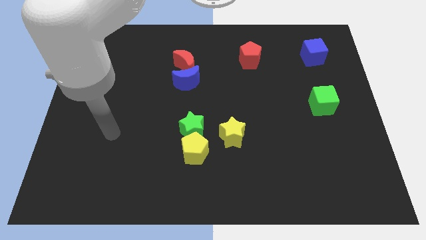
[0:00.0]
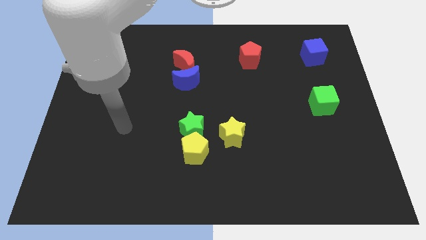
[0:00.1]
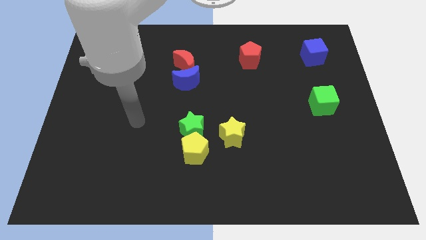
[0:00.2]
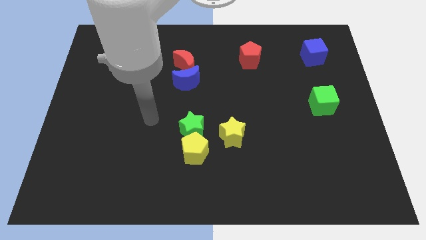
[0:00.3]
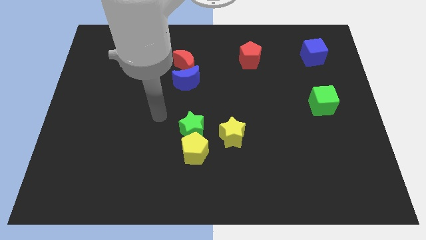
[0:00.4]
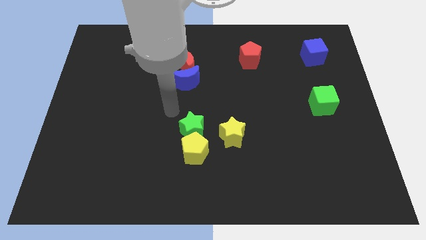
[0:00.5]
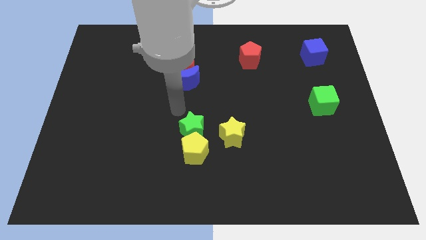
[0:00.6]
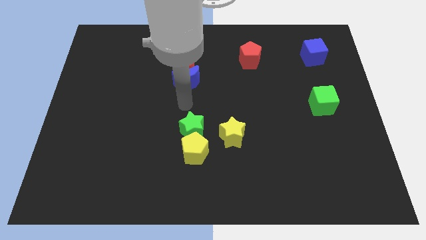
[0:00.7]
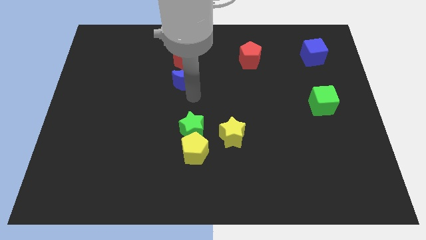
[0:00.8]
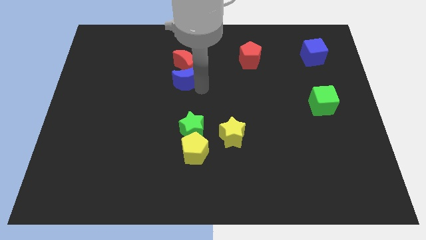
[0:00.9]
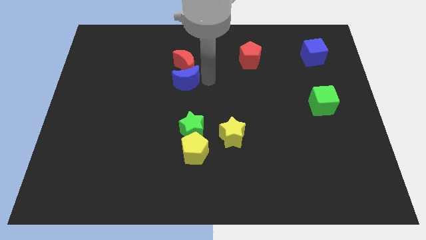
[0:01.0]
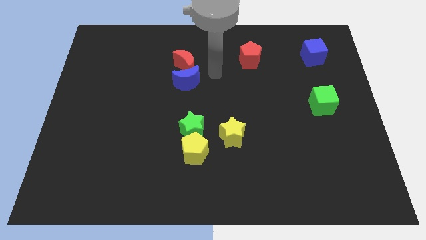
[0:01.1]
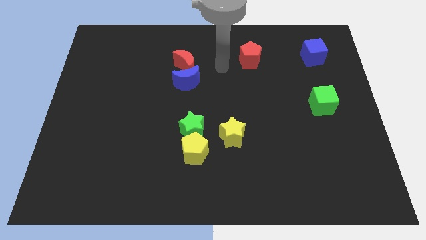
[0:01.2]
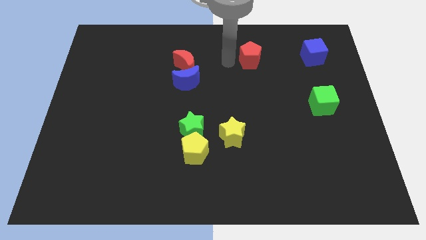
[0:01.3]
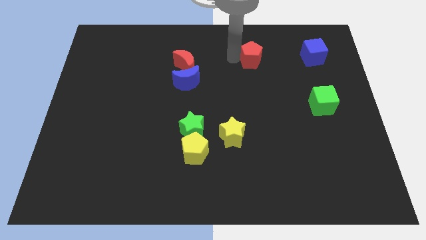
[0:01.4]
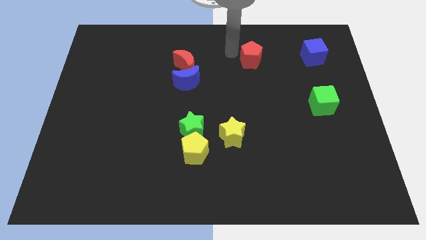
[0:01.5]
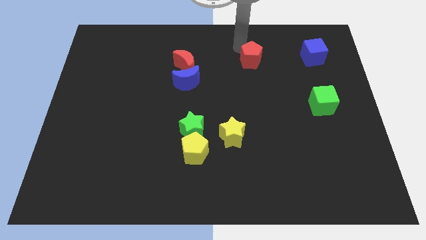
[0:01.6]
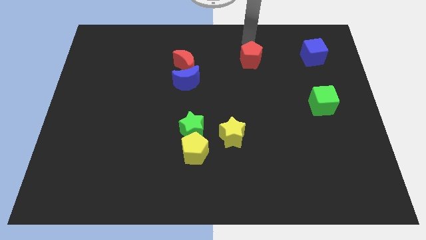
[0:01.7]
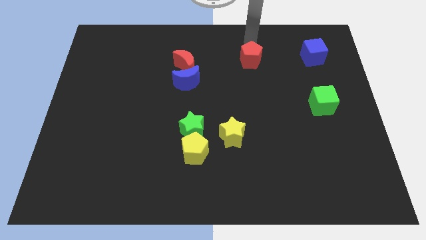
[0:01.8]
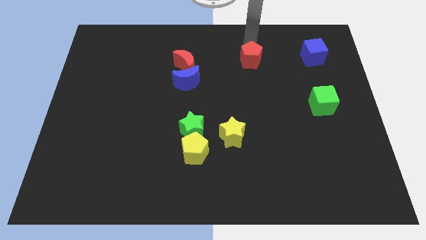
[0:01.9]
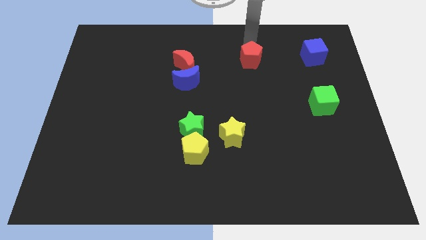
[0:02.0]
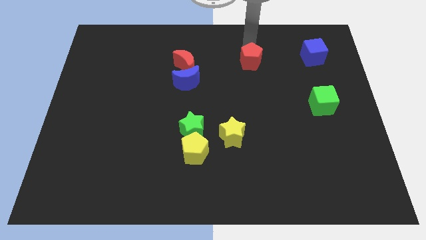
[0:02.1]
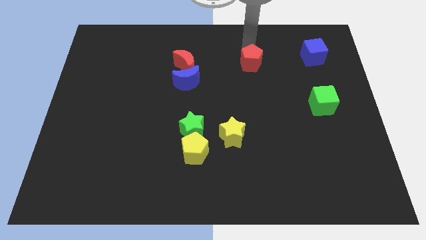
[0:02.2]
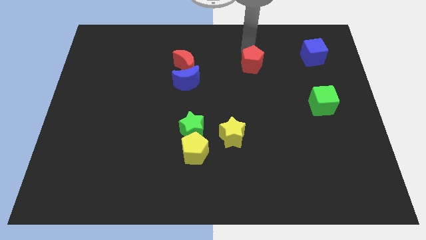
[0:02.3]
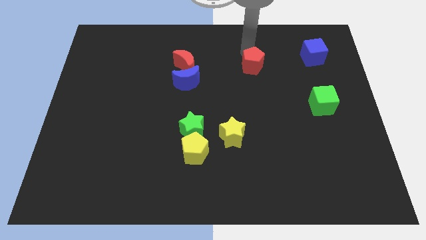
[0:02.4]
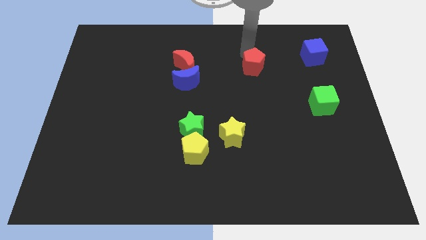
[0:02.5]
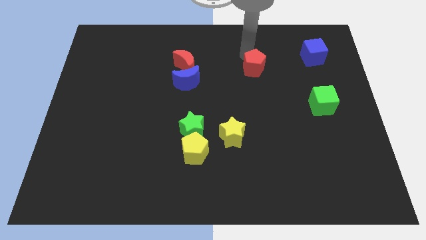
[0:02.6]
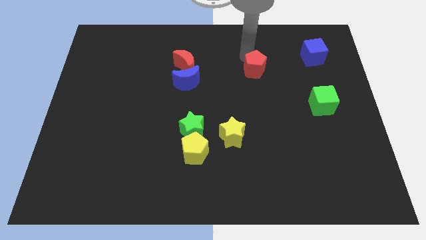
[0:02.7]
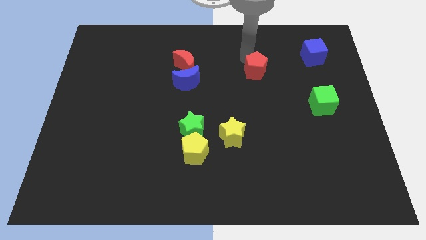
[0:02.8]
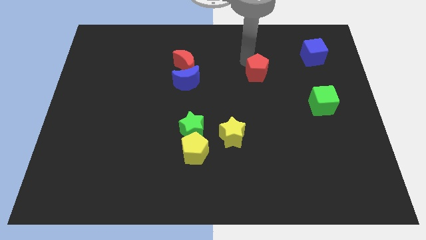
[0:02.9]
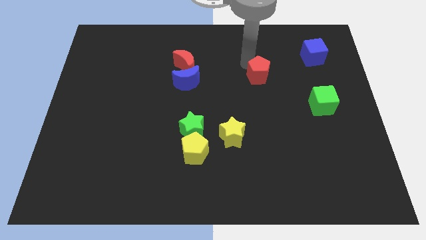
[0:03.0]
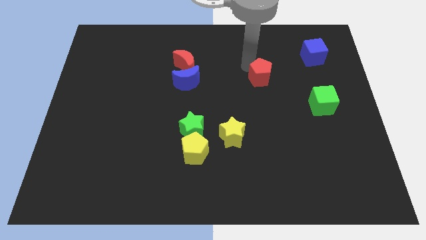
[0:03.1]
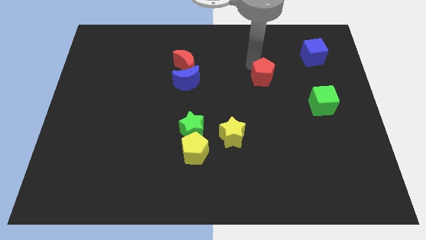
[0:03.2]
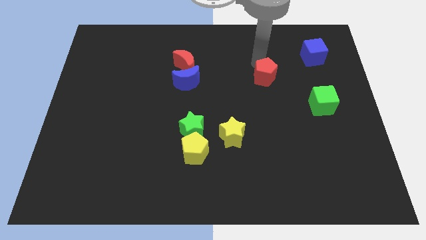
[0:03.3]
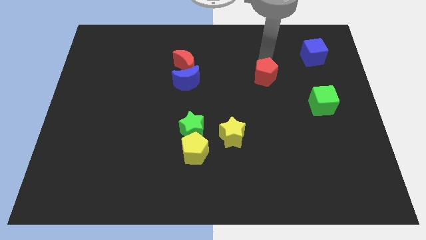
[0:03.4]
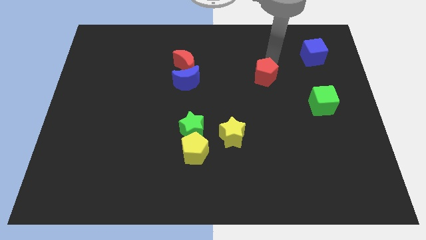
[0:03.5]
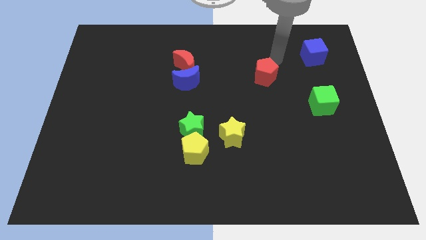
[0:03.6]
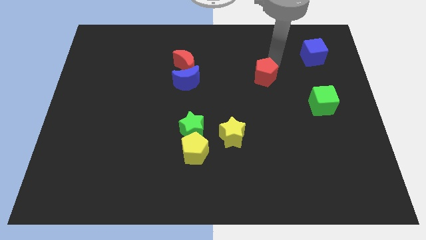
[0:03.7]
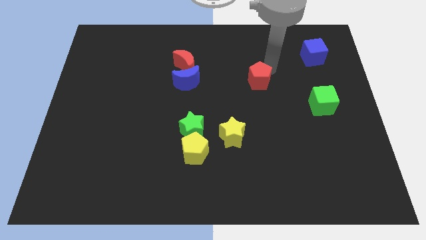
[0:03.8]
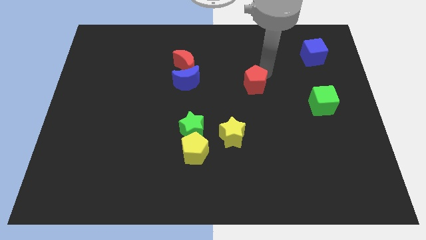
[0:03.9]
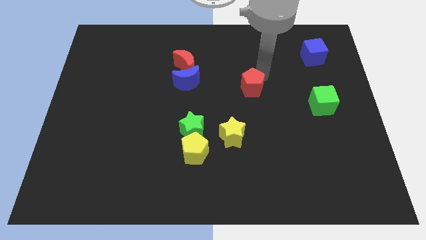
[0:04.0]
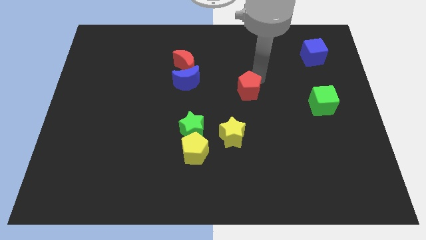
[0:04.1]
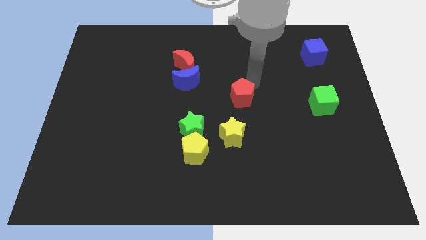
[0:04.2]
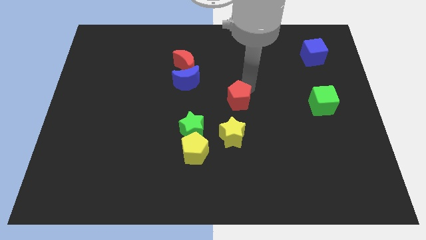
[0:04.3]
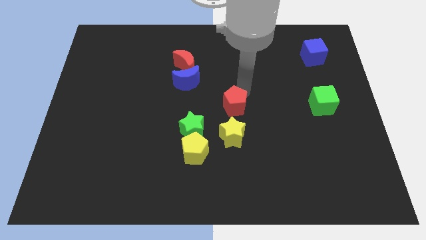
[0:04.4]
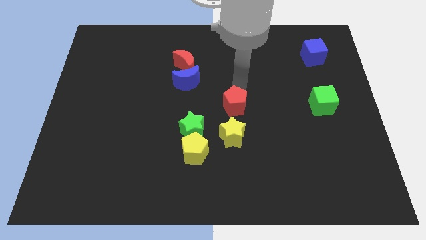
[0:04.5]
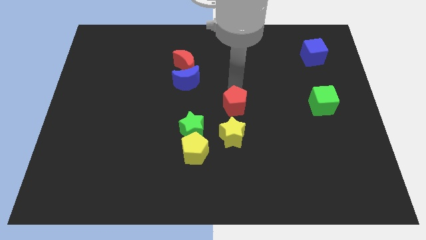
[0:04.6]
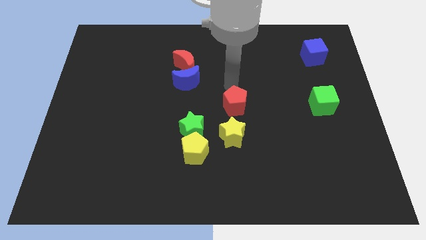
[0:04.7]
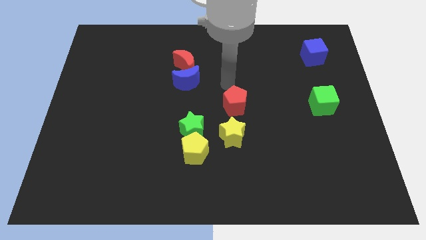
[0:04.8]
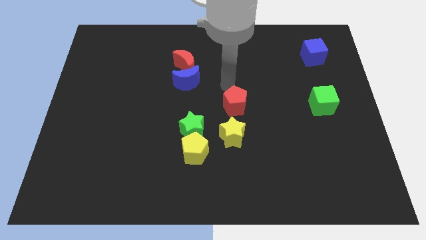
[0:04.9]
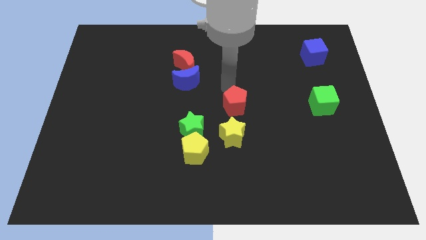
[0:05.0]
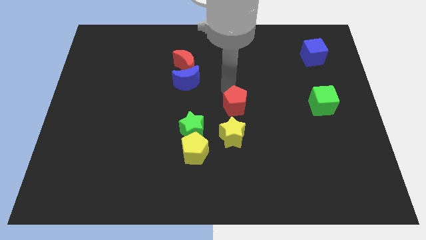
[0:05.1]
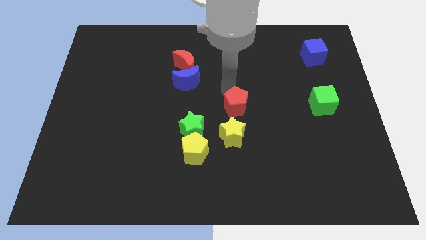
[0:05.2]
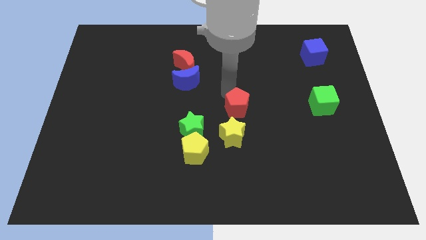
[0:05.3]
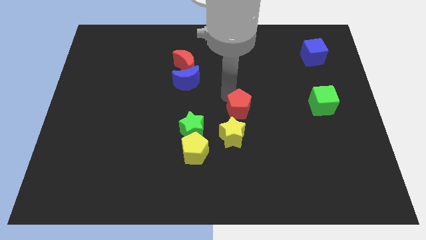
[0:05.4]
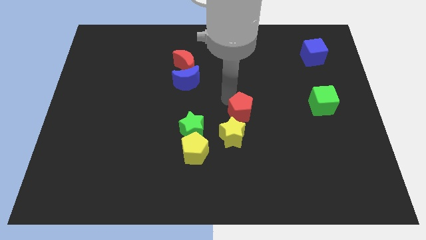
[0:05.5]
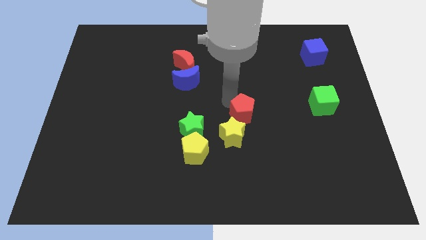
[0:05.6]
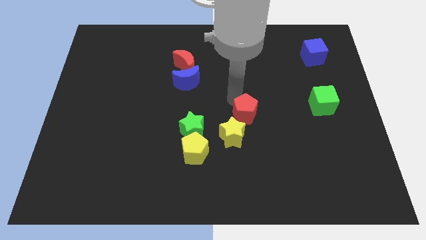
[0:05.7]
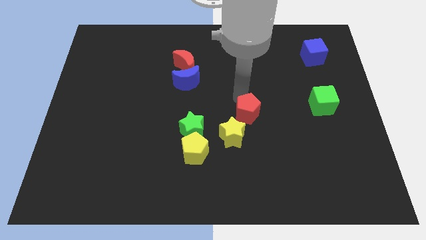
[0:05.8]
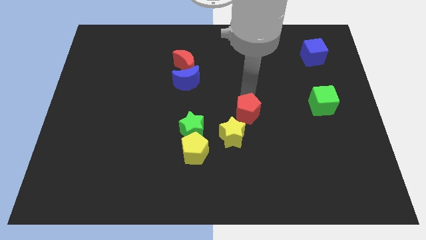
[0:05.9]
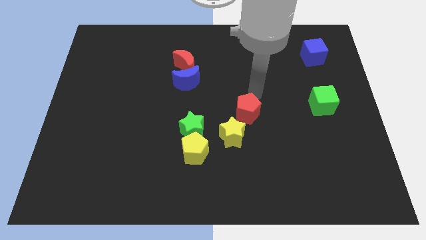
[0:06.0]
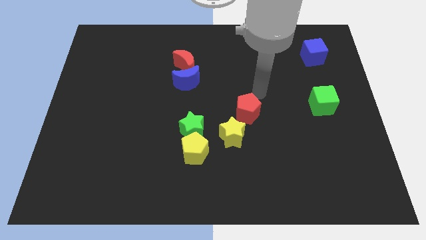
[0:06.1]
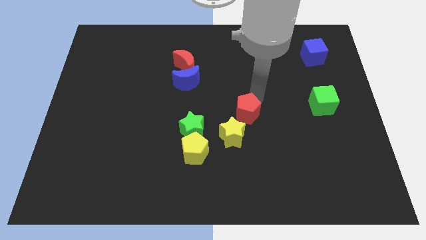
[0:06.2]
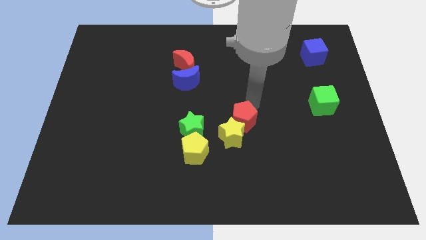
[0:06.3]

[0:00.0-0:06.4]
slide the red pentagon to the yellow star
